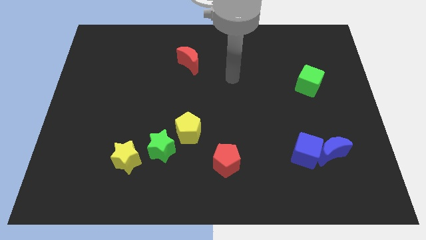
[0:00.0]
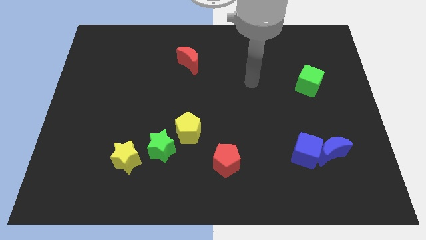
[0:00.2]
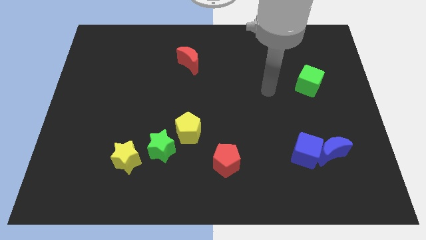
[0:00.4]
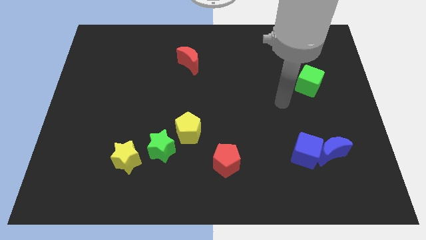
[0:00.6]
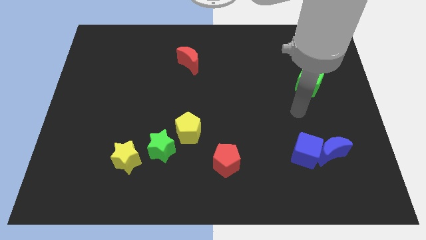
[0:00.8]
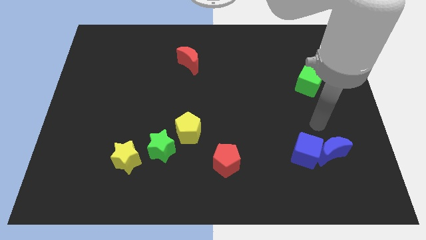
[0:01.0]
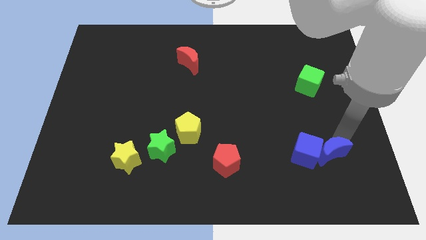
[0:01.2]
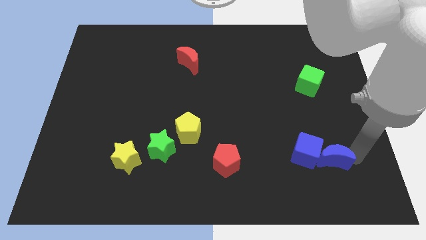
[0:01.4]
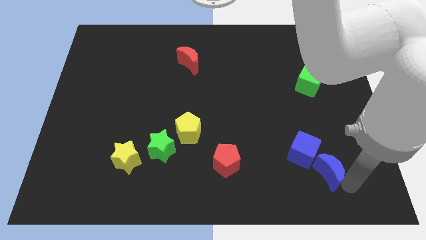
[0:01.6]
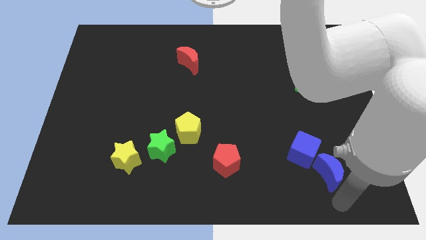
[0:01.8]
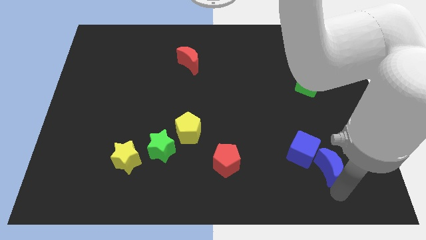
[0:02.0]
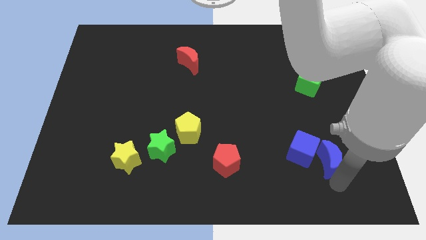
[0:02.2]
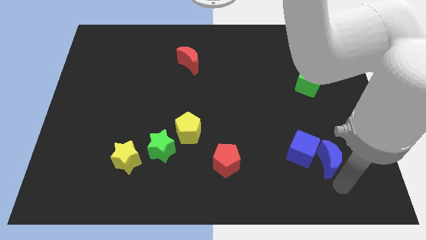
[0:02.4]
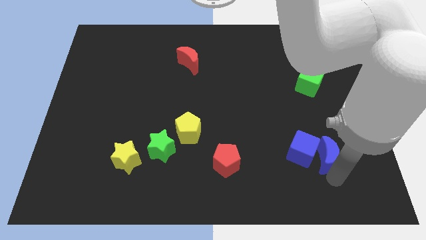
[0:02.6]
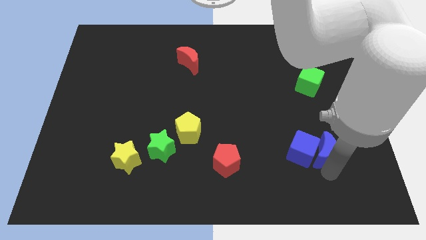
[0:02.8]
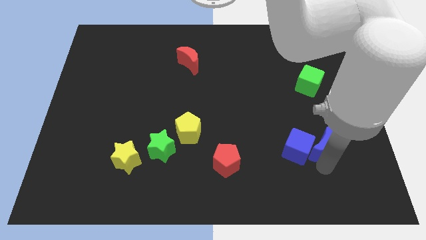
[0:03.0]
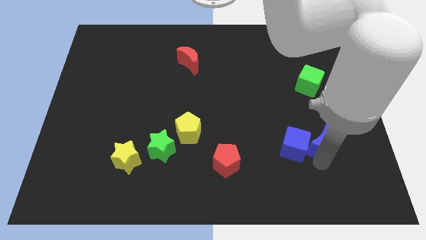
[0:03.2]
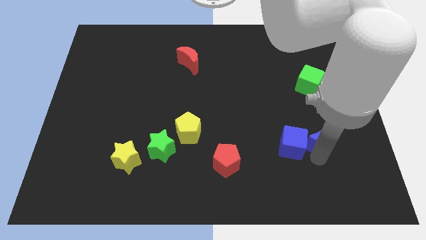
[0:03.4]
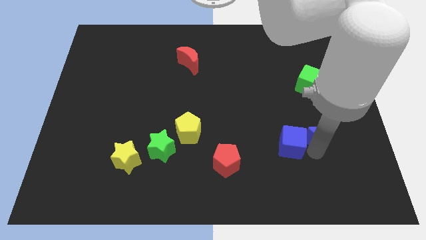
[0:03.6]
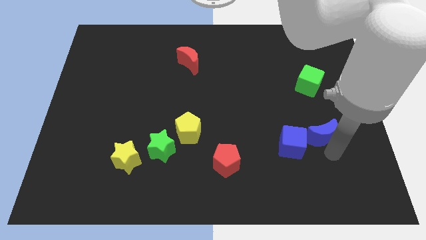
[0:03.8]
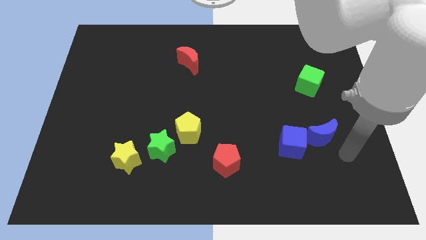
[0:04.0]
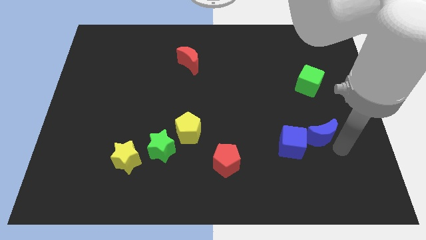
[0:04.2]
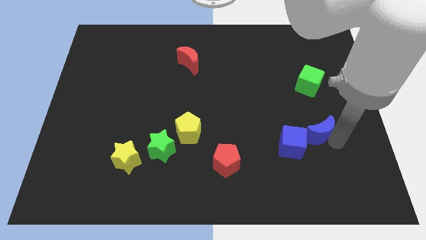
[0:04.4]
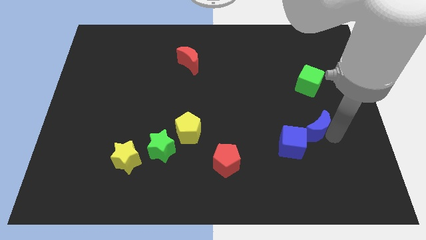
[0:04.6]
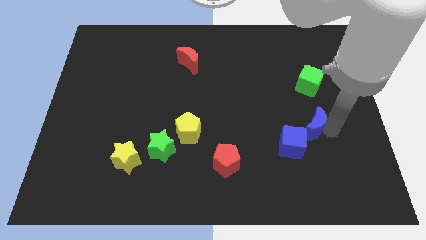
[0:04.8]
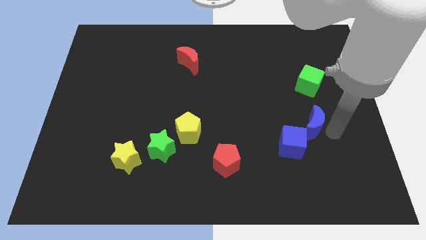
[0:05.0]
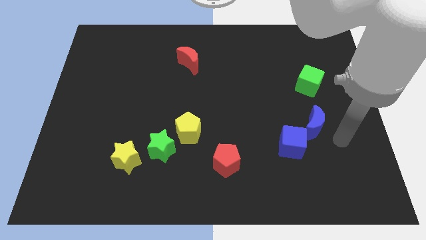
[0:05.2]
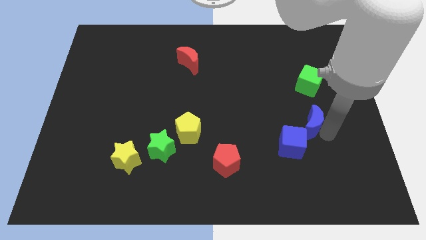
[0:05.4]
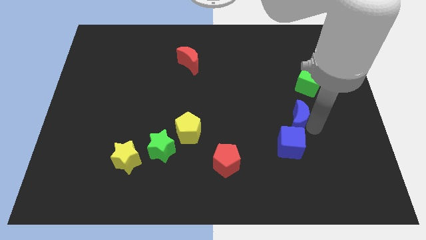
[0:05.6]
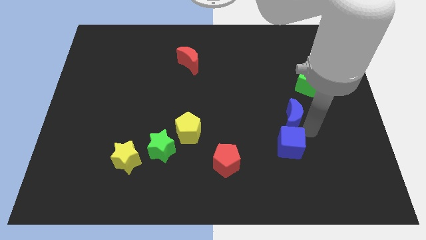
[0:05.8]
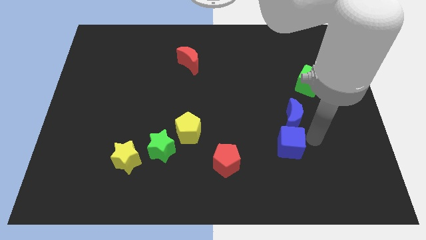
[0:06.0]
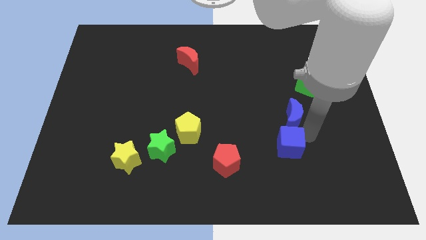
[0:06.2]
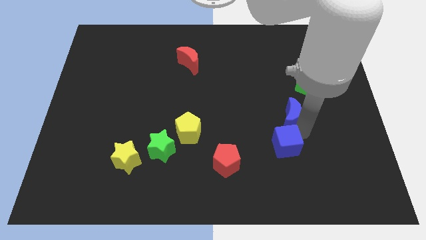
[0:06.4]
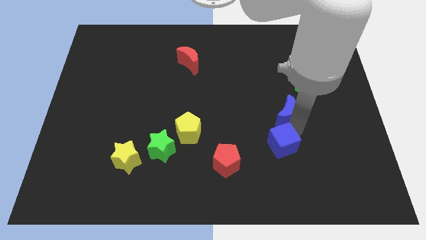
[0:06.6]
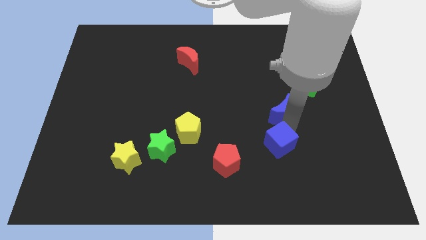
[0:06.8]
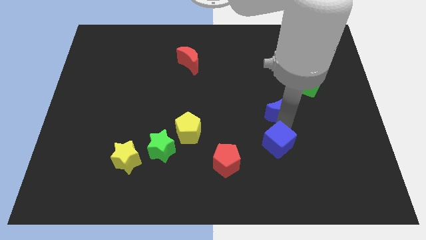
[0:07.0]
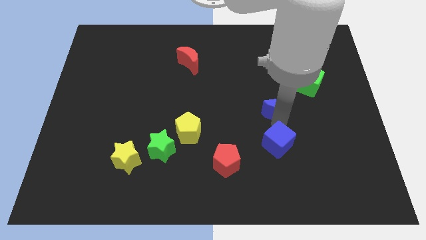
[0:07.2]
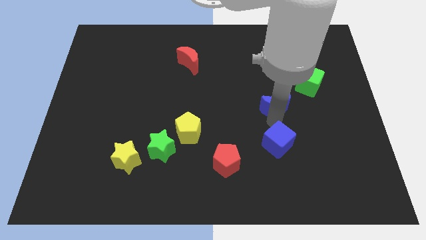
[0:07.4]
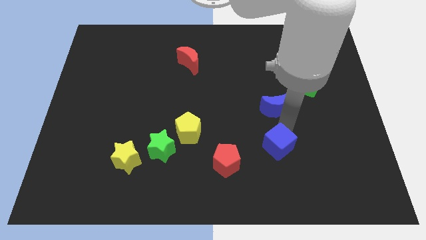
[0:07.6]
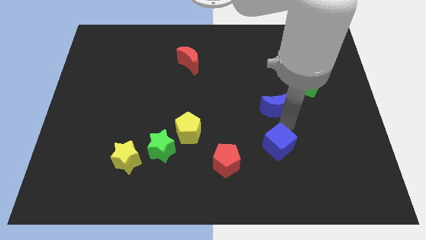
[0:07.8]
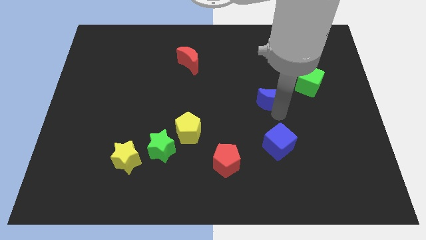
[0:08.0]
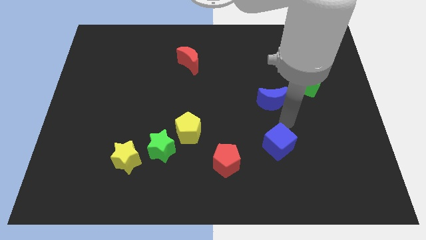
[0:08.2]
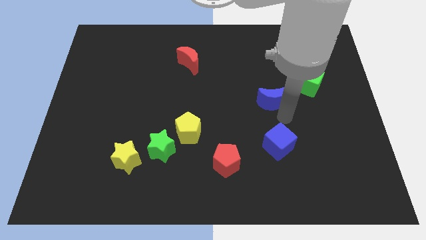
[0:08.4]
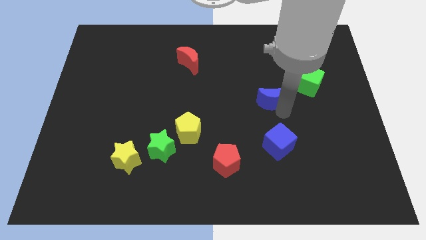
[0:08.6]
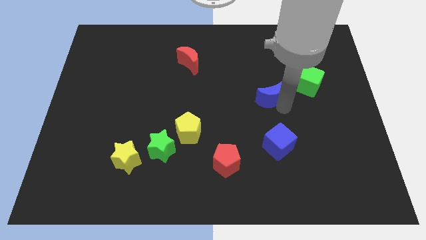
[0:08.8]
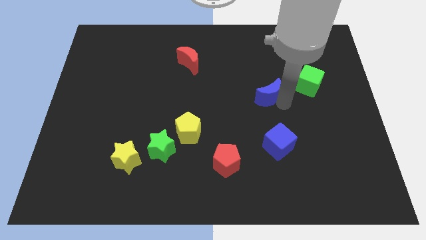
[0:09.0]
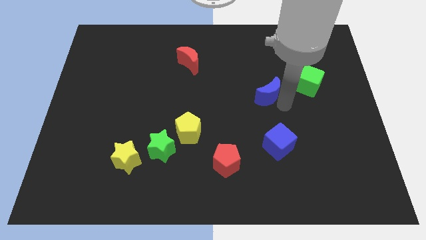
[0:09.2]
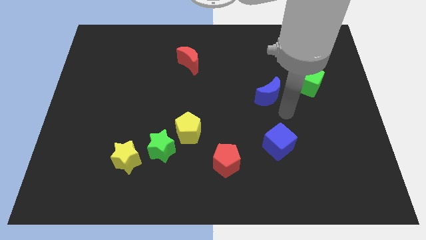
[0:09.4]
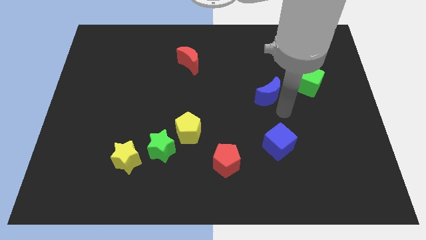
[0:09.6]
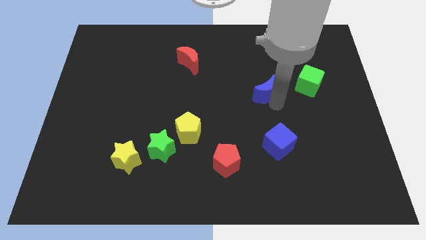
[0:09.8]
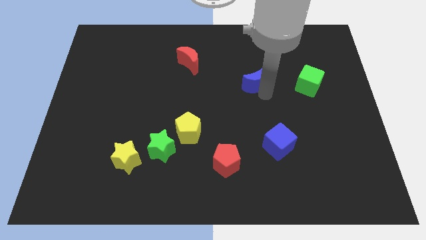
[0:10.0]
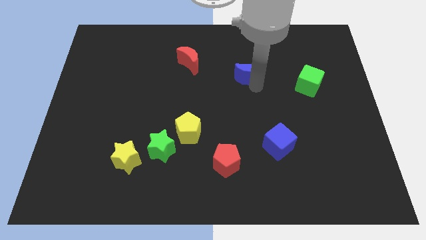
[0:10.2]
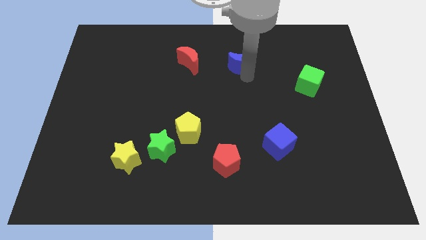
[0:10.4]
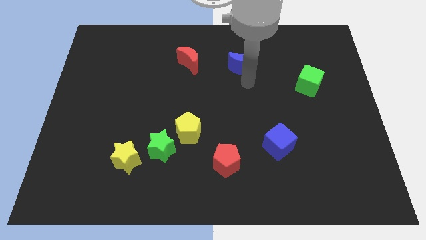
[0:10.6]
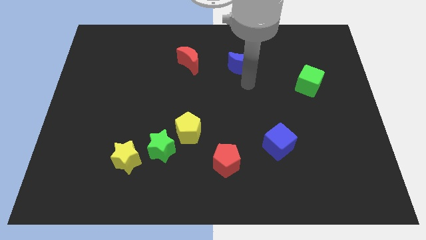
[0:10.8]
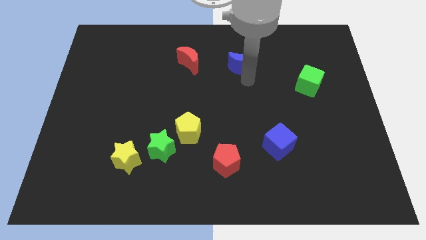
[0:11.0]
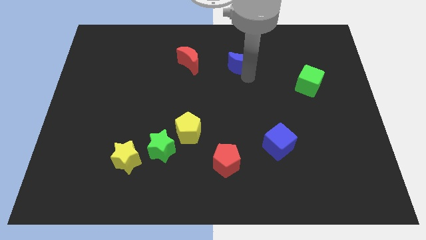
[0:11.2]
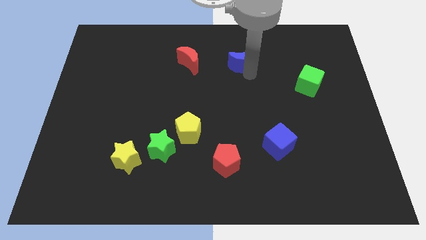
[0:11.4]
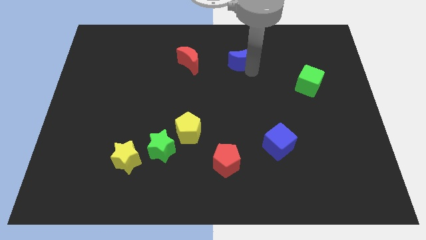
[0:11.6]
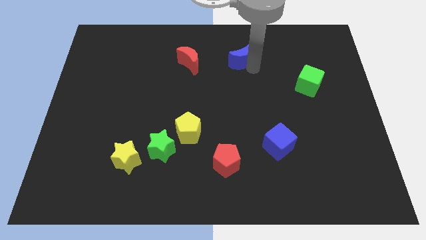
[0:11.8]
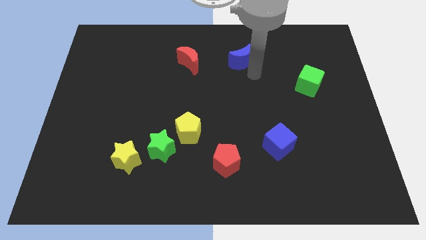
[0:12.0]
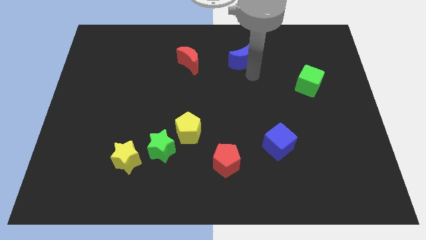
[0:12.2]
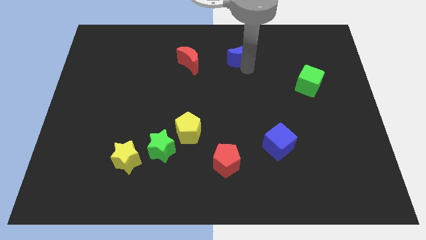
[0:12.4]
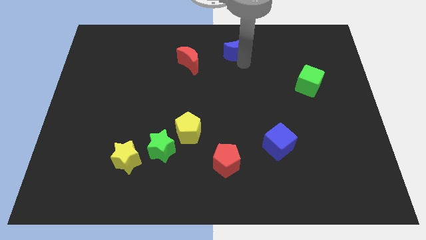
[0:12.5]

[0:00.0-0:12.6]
slide the blue moon to the towards your base
